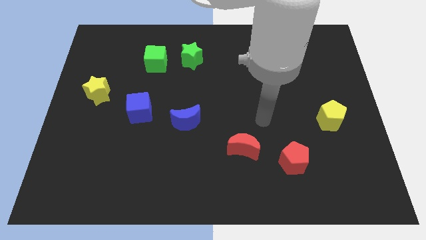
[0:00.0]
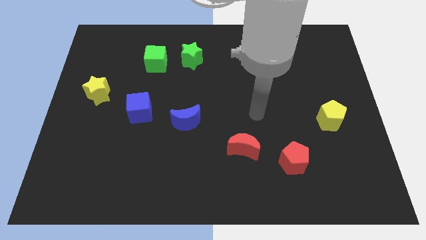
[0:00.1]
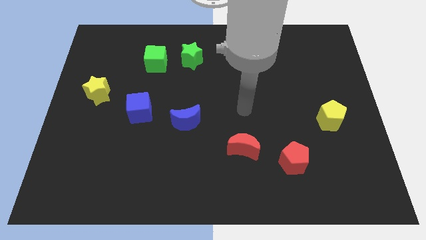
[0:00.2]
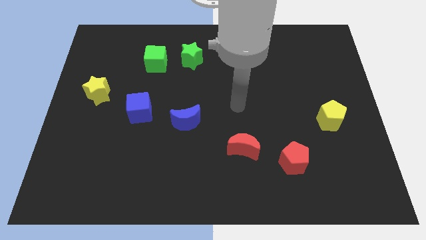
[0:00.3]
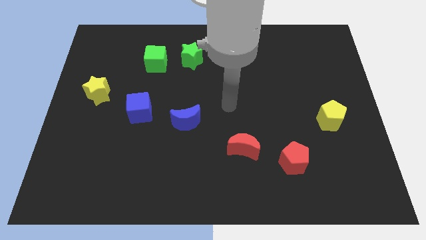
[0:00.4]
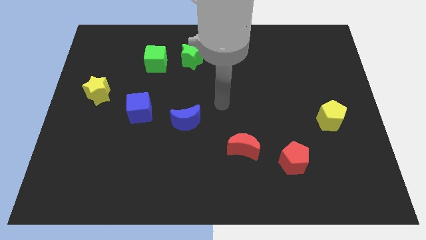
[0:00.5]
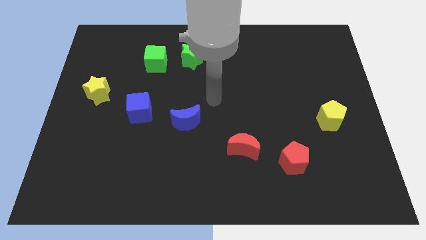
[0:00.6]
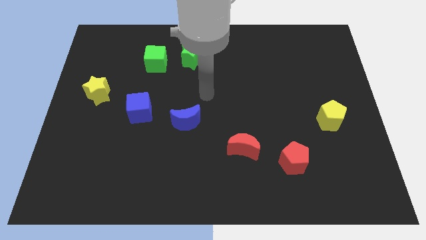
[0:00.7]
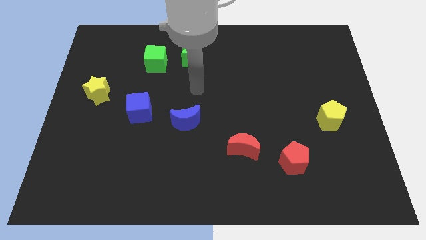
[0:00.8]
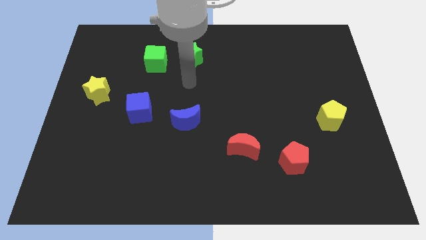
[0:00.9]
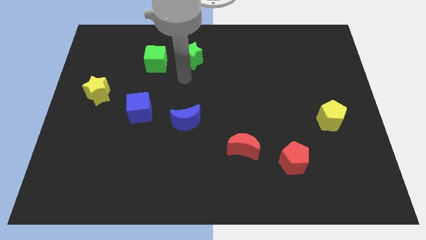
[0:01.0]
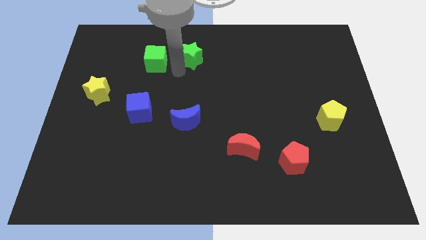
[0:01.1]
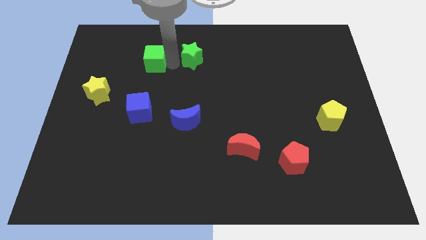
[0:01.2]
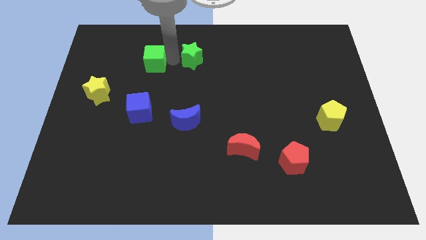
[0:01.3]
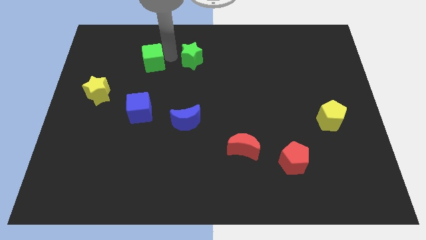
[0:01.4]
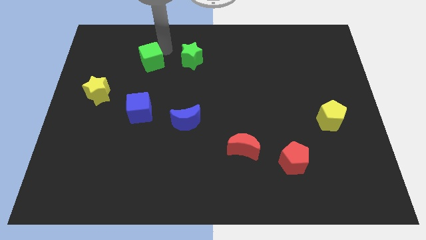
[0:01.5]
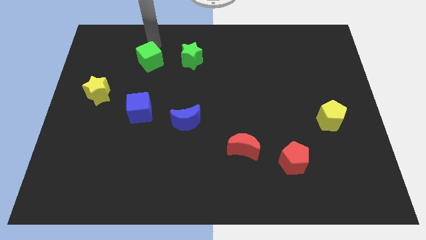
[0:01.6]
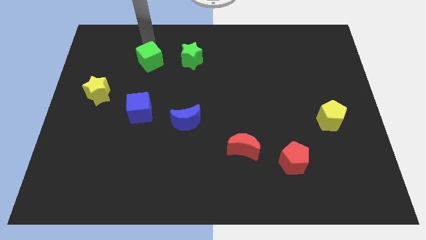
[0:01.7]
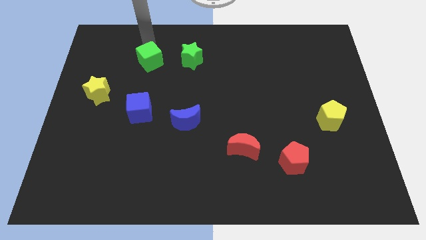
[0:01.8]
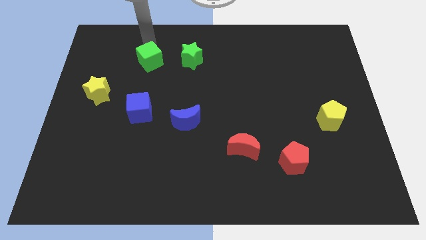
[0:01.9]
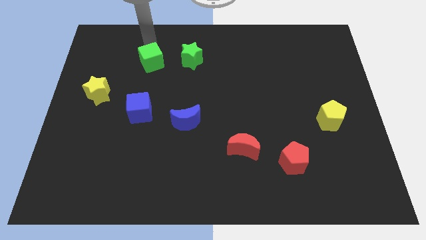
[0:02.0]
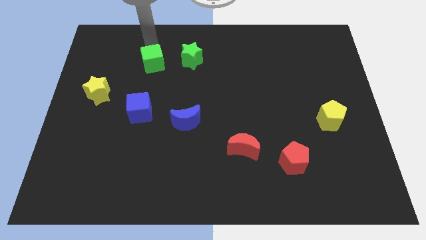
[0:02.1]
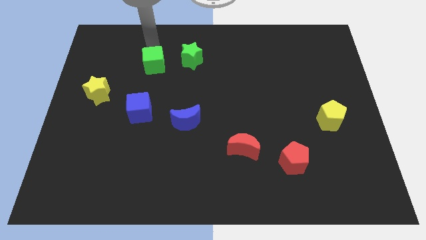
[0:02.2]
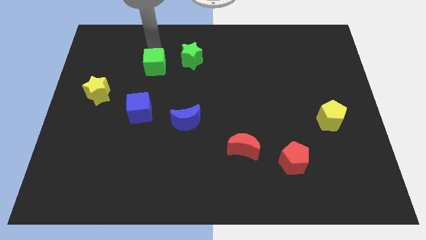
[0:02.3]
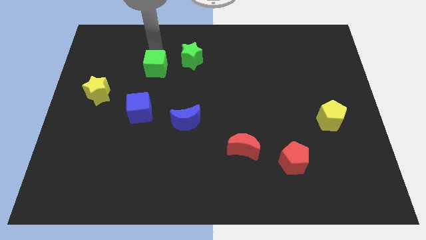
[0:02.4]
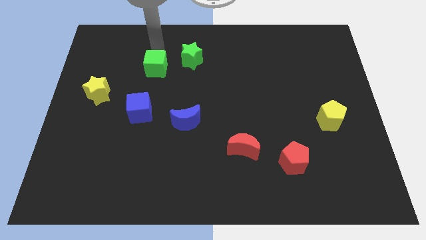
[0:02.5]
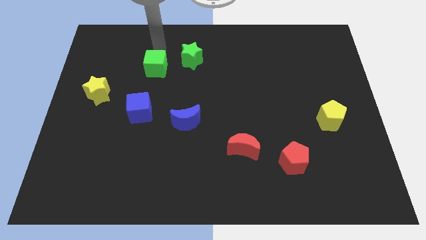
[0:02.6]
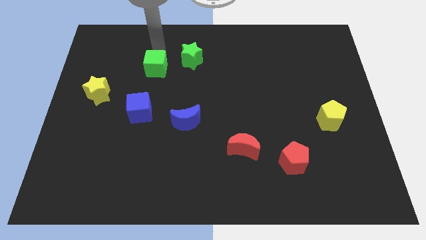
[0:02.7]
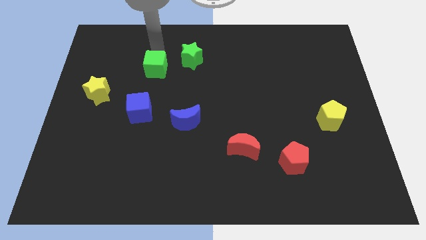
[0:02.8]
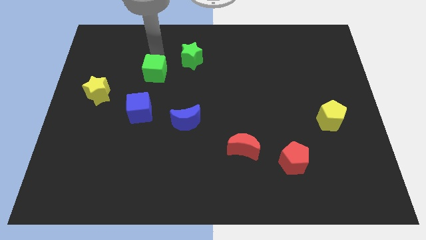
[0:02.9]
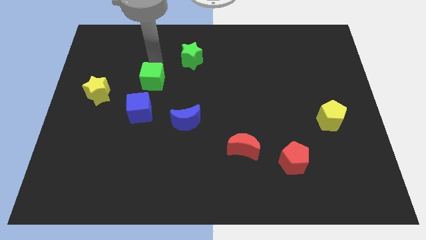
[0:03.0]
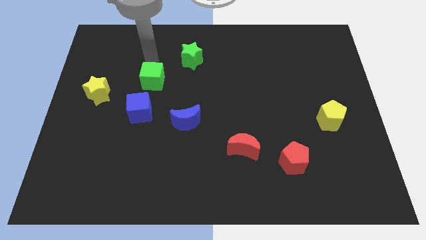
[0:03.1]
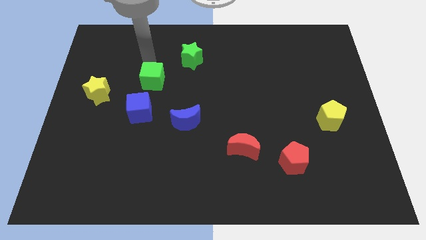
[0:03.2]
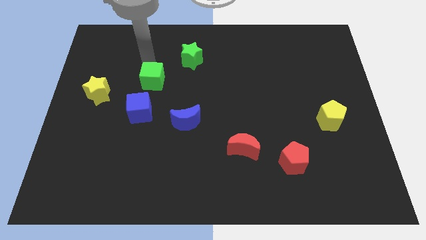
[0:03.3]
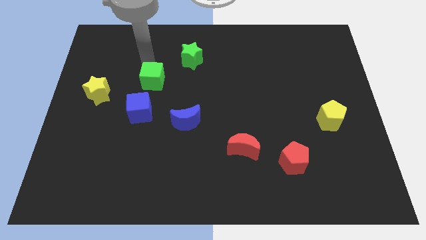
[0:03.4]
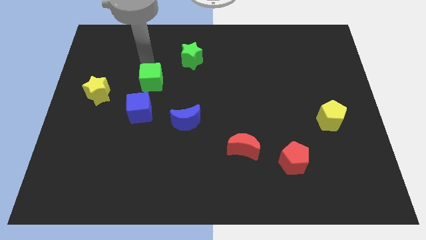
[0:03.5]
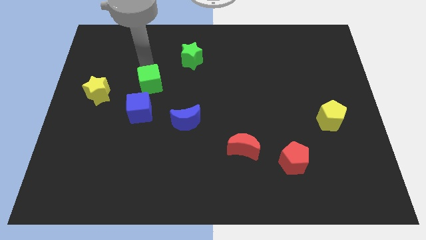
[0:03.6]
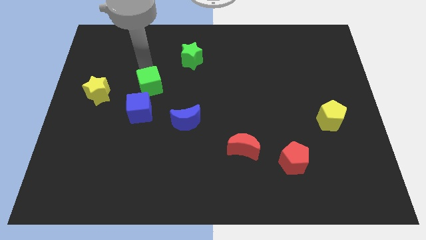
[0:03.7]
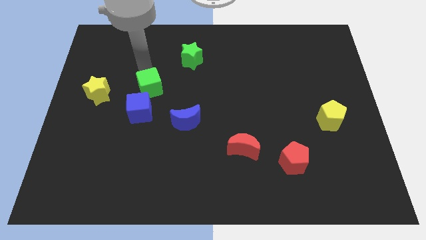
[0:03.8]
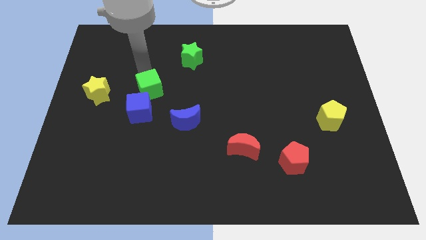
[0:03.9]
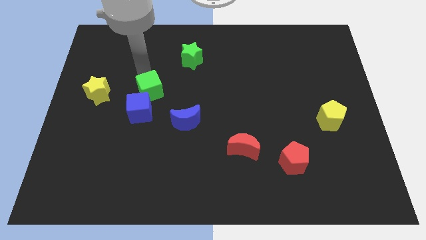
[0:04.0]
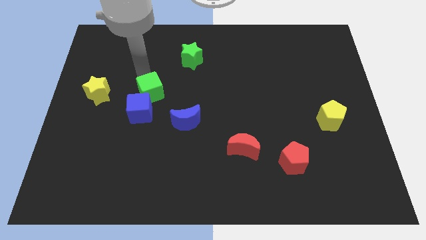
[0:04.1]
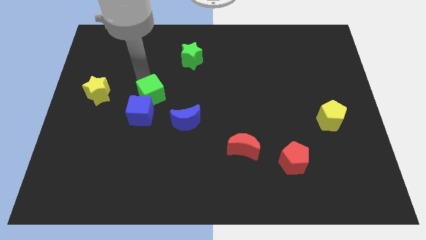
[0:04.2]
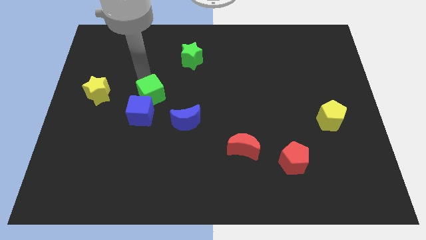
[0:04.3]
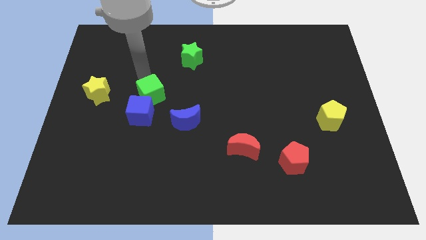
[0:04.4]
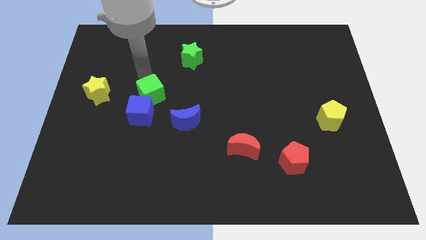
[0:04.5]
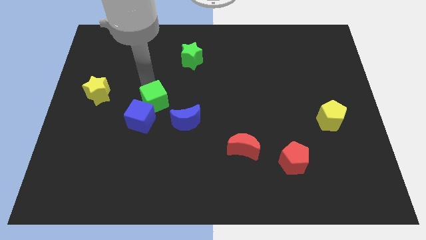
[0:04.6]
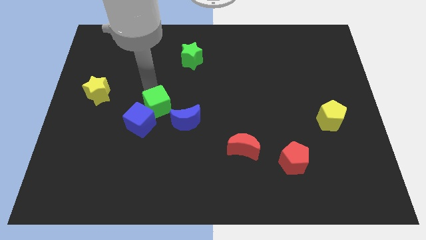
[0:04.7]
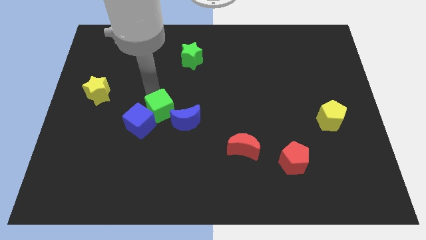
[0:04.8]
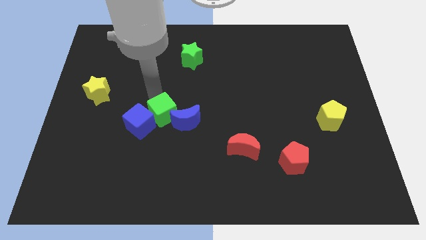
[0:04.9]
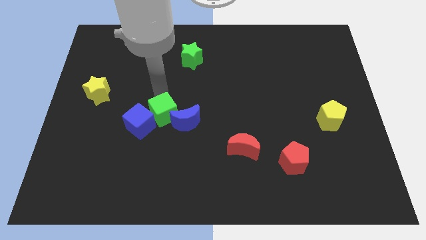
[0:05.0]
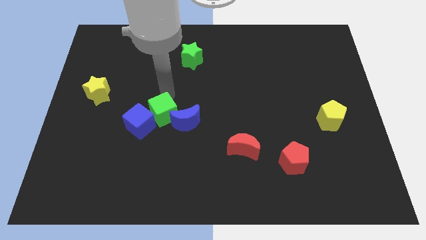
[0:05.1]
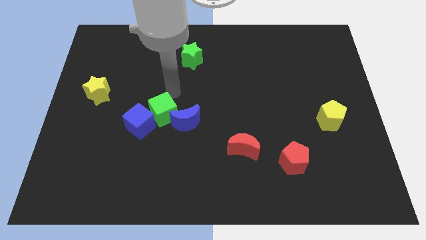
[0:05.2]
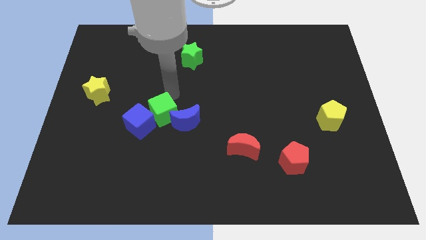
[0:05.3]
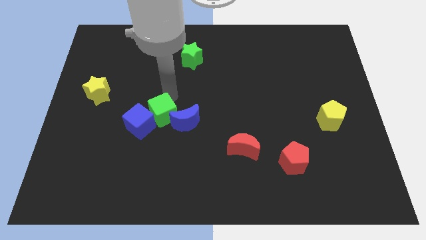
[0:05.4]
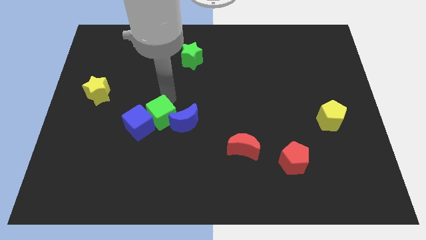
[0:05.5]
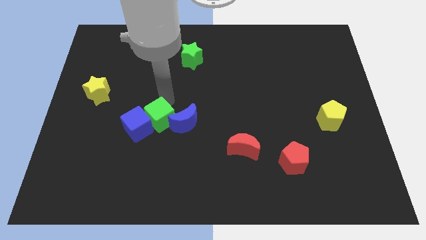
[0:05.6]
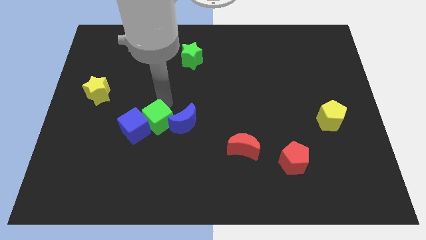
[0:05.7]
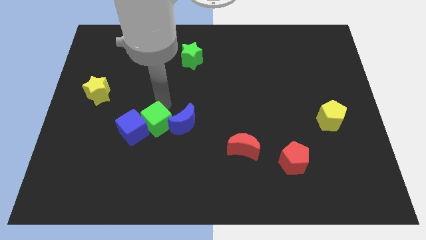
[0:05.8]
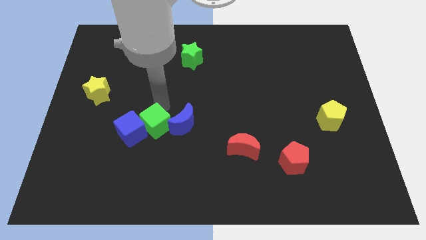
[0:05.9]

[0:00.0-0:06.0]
push the green cube downwards

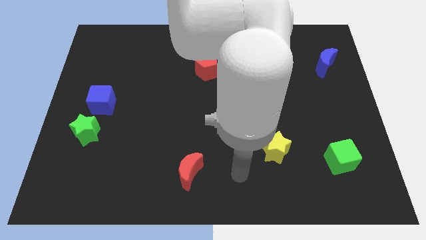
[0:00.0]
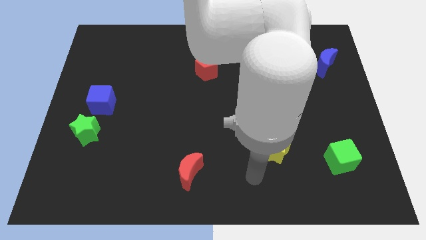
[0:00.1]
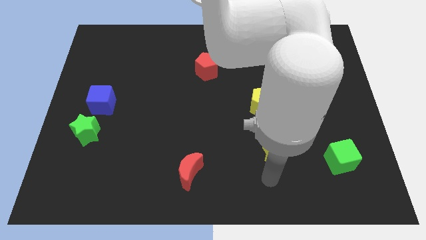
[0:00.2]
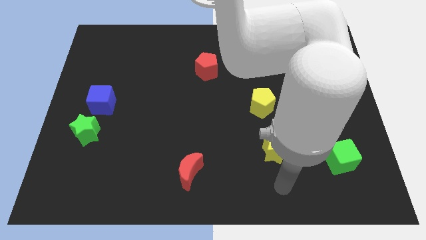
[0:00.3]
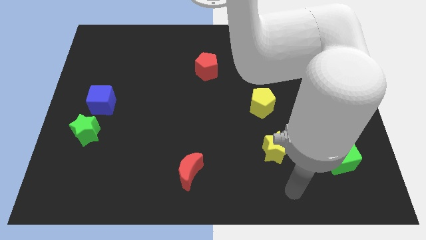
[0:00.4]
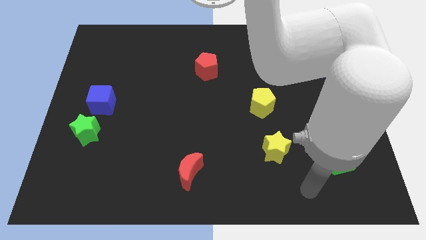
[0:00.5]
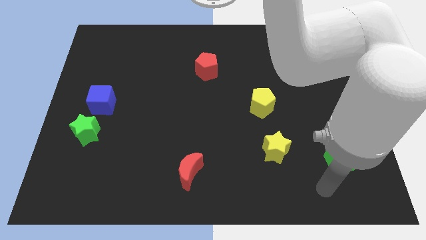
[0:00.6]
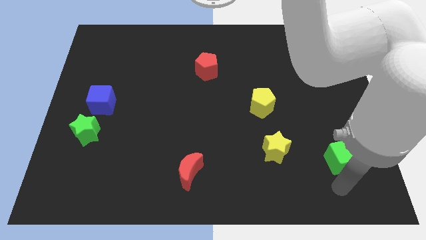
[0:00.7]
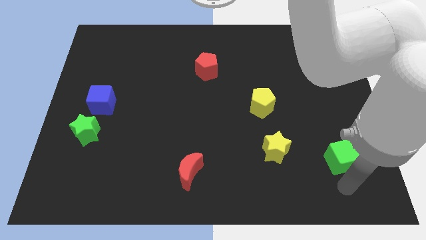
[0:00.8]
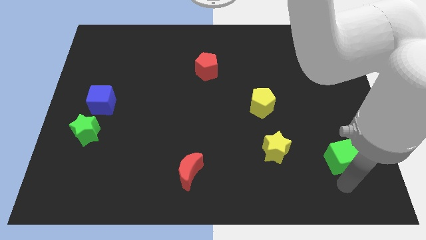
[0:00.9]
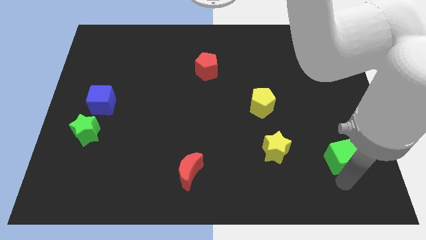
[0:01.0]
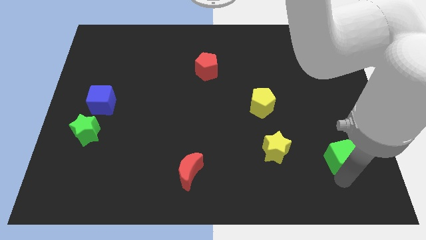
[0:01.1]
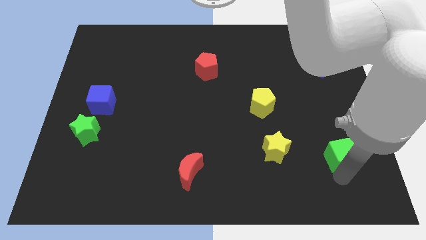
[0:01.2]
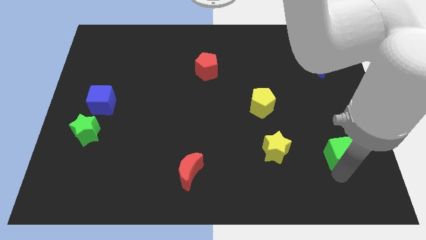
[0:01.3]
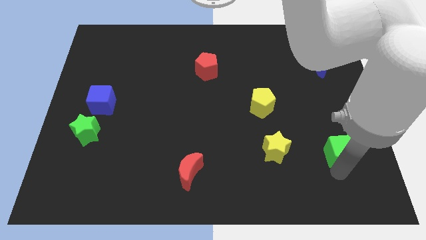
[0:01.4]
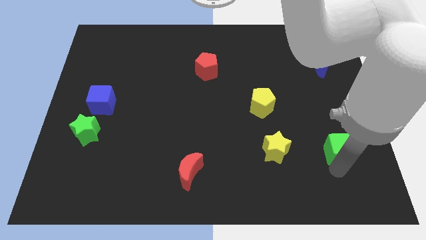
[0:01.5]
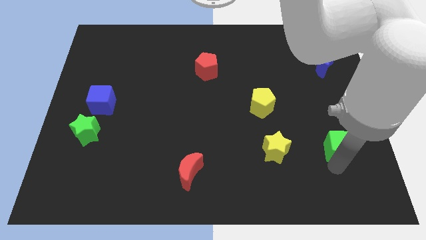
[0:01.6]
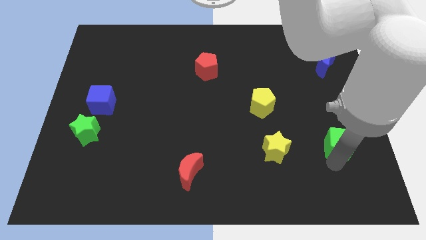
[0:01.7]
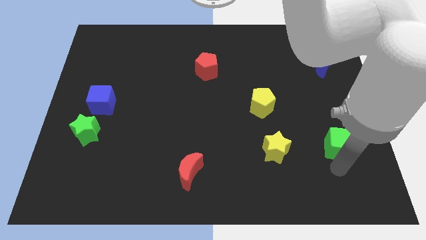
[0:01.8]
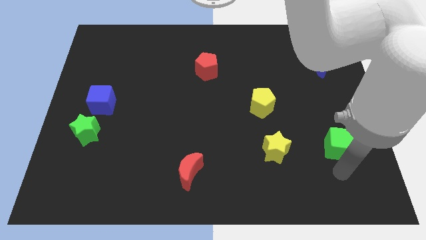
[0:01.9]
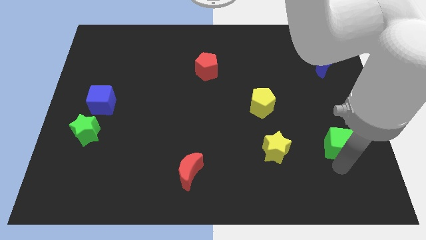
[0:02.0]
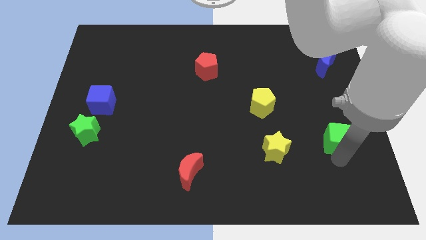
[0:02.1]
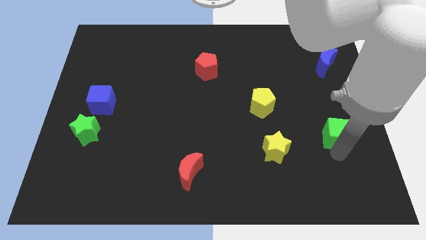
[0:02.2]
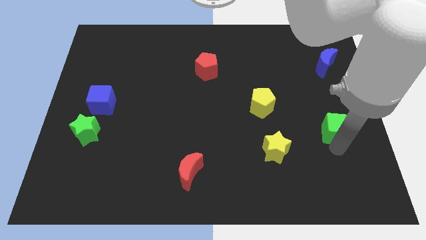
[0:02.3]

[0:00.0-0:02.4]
move the green cube up a little bit
